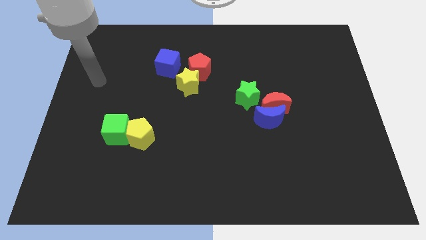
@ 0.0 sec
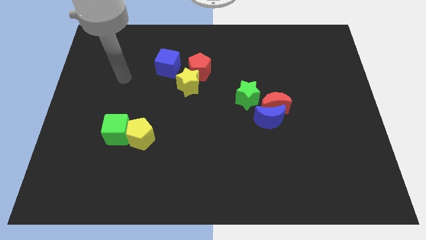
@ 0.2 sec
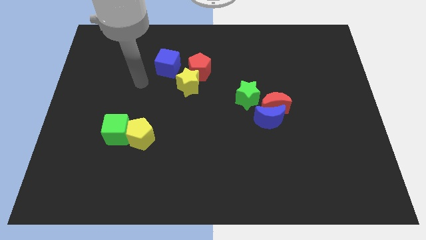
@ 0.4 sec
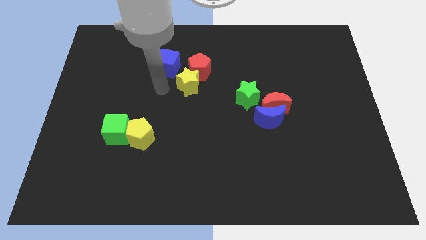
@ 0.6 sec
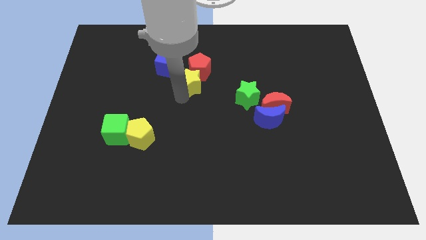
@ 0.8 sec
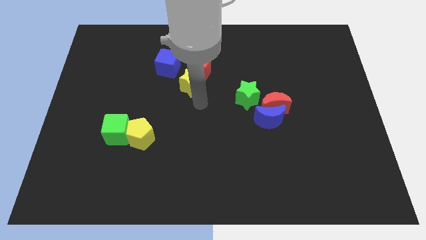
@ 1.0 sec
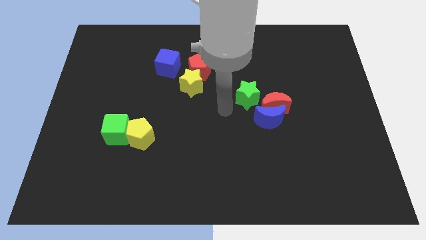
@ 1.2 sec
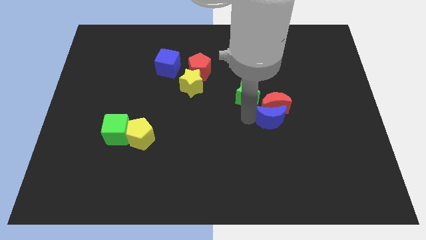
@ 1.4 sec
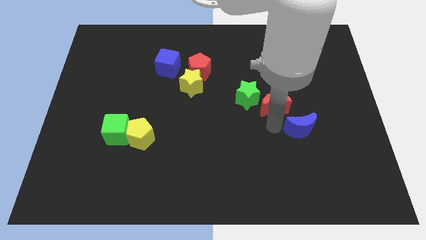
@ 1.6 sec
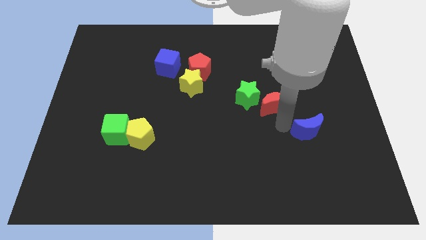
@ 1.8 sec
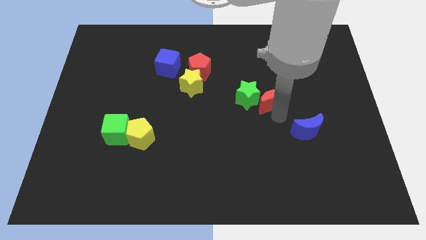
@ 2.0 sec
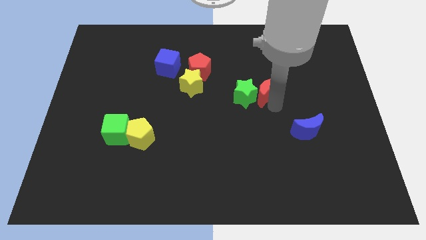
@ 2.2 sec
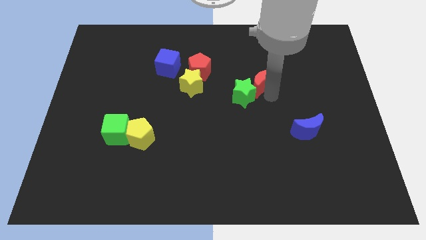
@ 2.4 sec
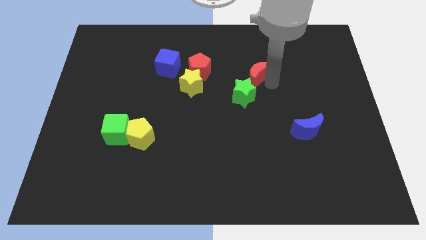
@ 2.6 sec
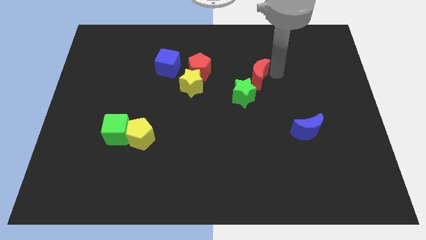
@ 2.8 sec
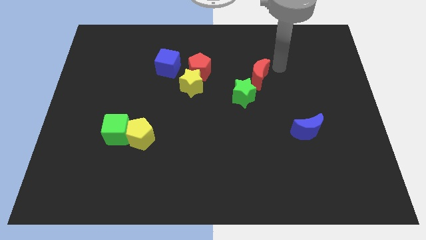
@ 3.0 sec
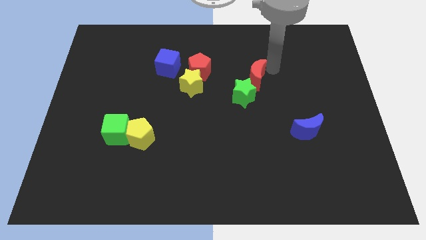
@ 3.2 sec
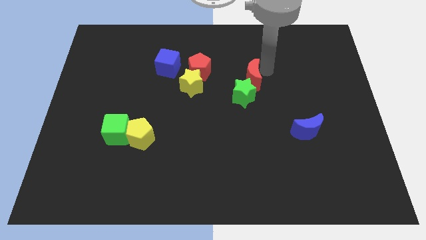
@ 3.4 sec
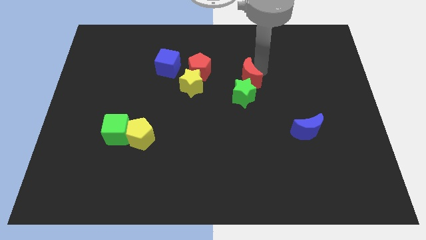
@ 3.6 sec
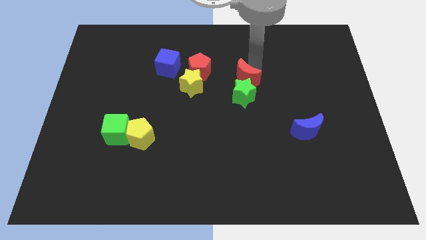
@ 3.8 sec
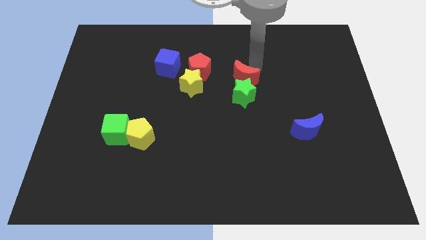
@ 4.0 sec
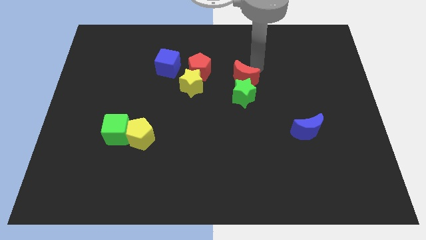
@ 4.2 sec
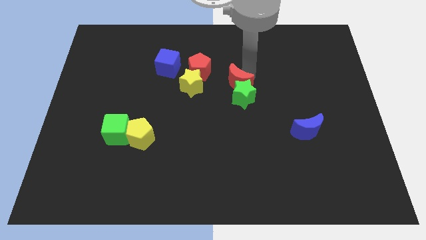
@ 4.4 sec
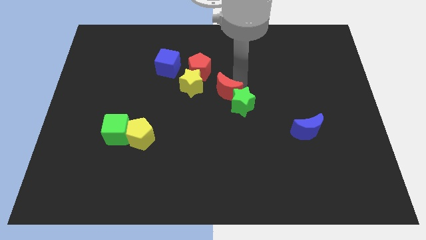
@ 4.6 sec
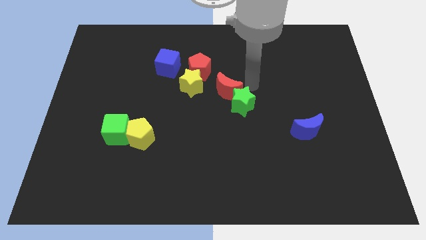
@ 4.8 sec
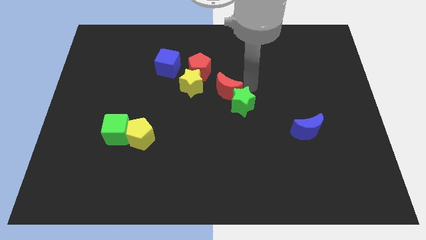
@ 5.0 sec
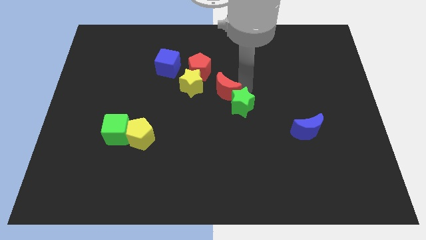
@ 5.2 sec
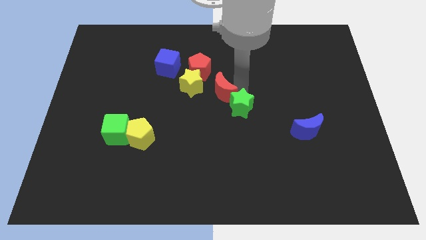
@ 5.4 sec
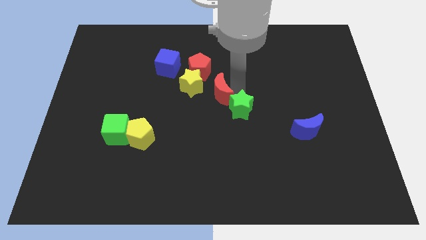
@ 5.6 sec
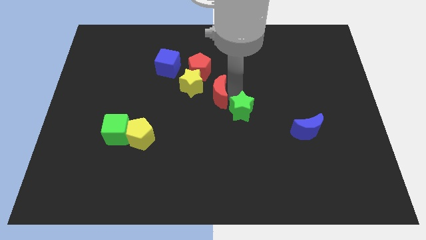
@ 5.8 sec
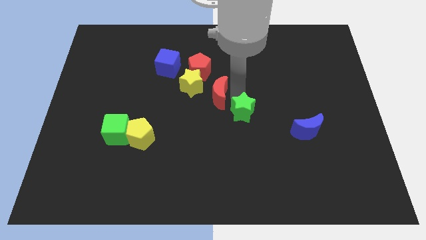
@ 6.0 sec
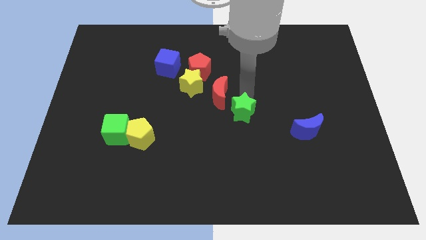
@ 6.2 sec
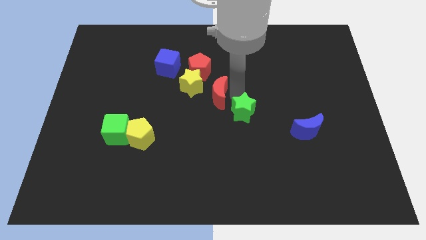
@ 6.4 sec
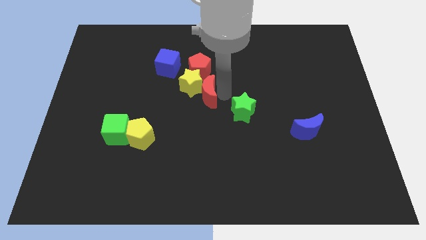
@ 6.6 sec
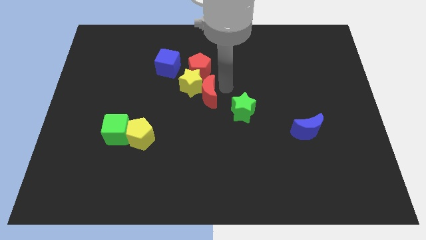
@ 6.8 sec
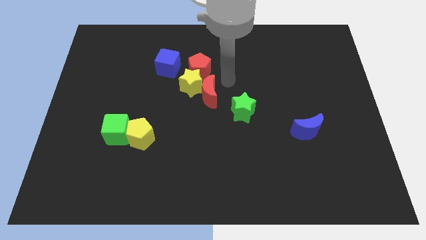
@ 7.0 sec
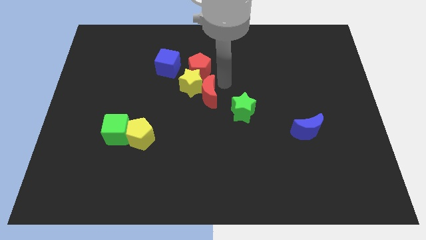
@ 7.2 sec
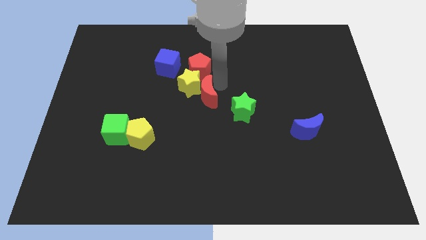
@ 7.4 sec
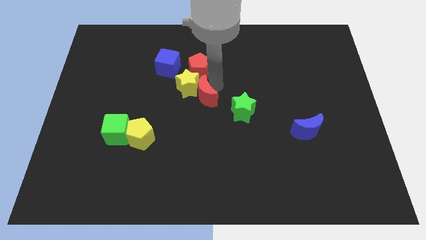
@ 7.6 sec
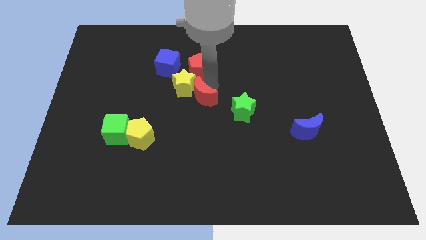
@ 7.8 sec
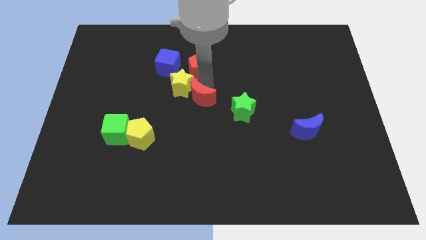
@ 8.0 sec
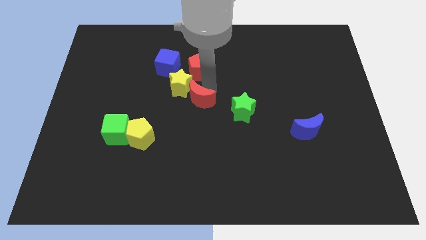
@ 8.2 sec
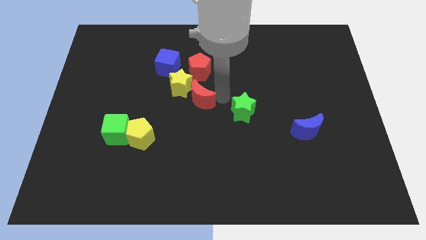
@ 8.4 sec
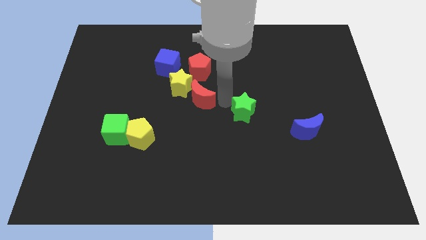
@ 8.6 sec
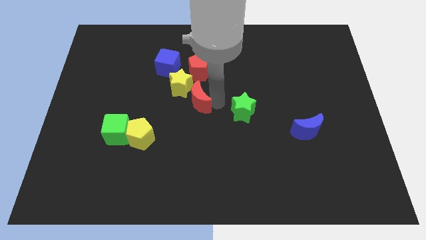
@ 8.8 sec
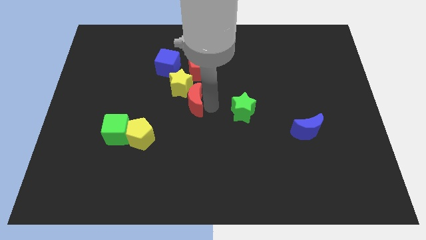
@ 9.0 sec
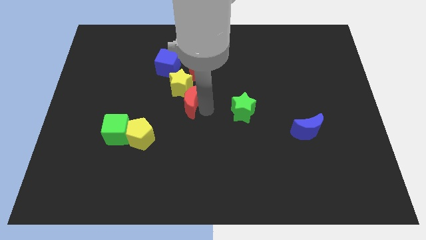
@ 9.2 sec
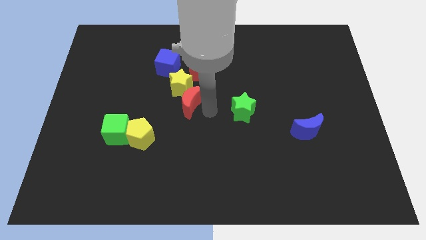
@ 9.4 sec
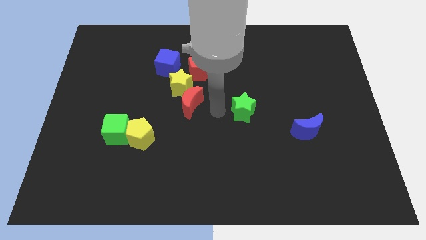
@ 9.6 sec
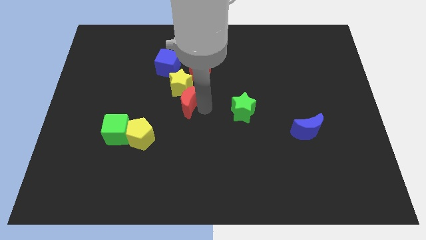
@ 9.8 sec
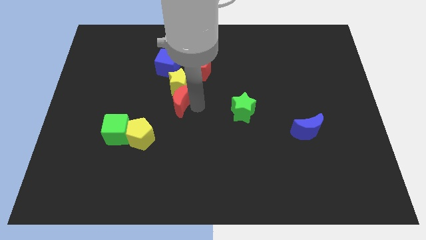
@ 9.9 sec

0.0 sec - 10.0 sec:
push the red moon to the bottom of the blue cube

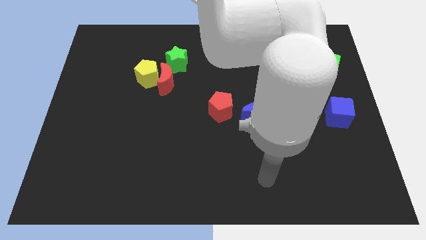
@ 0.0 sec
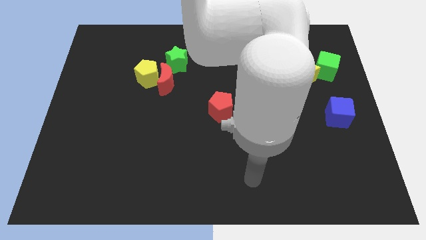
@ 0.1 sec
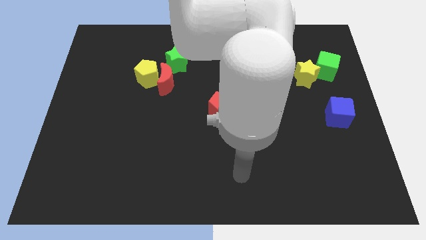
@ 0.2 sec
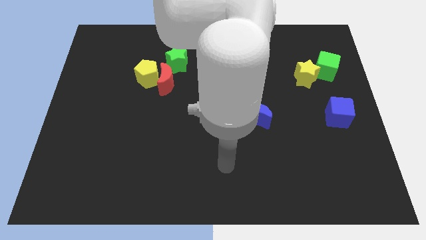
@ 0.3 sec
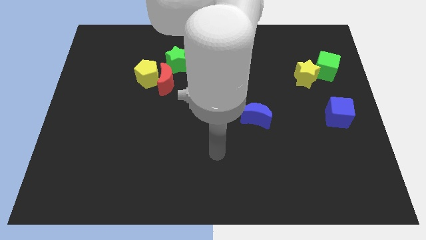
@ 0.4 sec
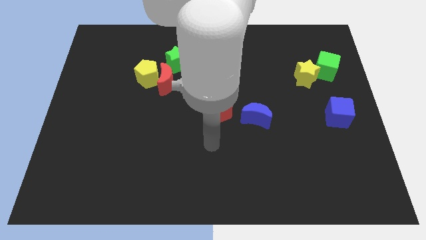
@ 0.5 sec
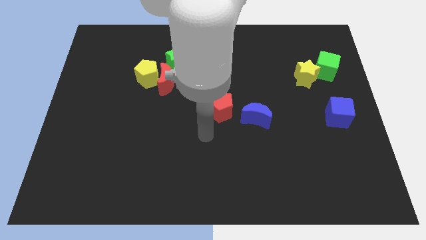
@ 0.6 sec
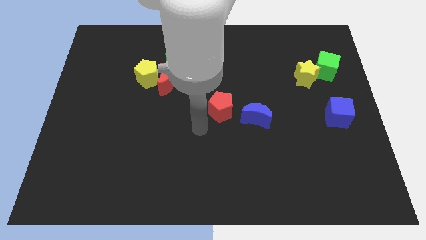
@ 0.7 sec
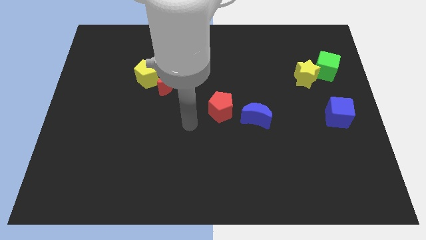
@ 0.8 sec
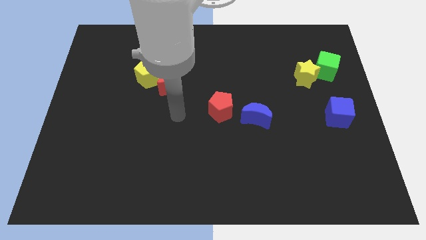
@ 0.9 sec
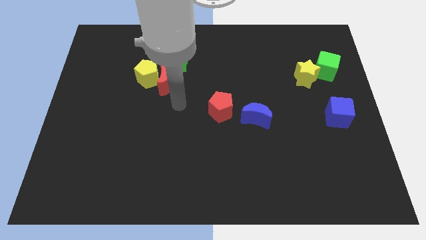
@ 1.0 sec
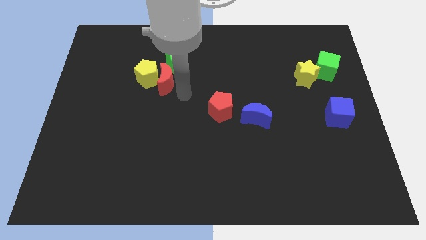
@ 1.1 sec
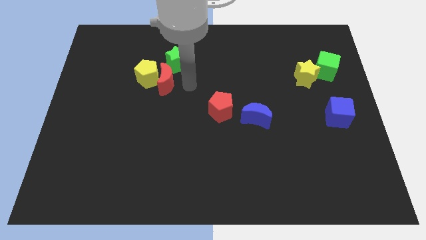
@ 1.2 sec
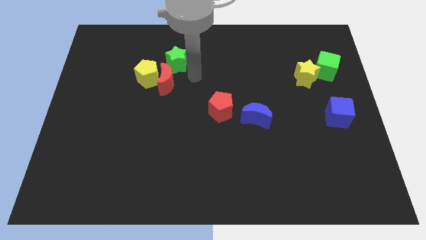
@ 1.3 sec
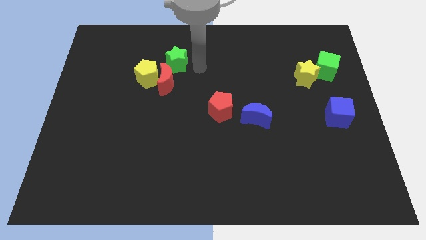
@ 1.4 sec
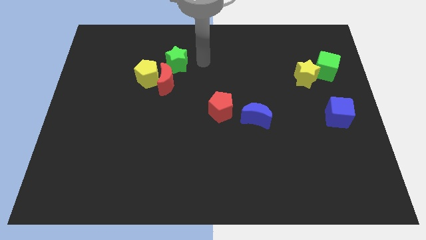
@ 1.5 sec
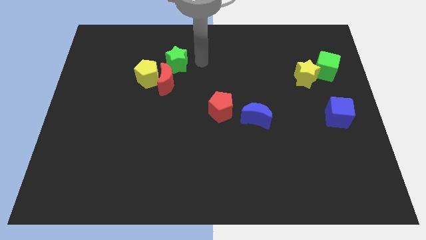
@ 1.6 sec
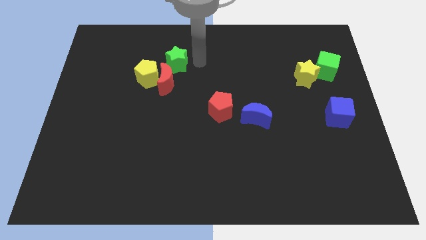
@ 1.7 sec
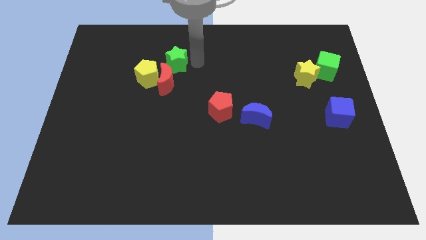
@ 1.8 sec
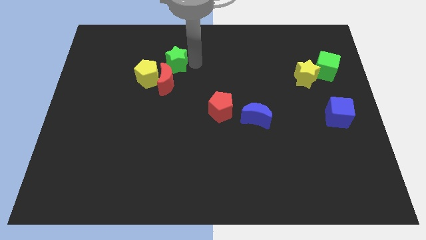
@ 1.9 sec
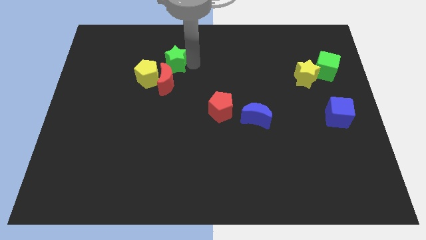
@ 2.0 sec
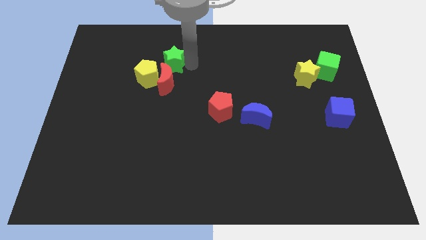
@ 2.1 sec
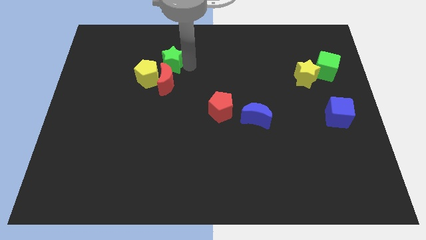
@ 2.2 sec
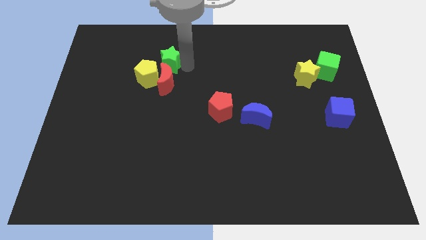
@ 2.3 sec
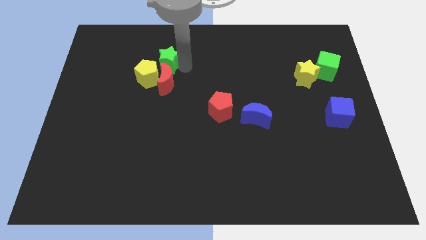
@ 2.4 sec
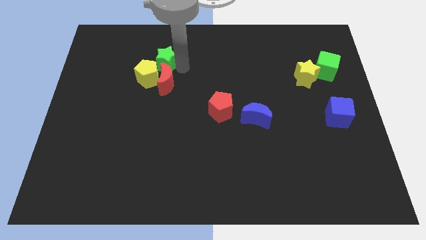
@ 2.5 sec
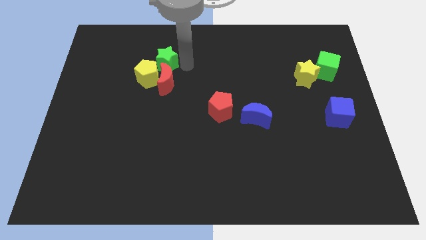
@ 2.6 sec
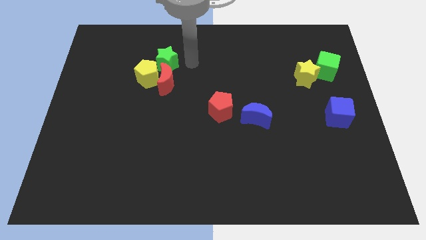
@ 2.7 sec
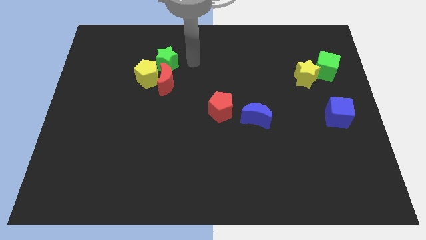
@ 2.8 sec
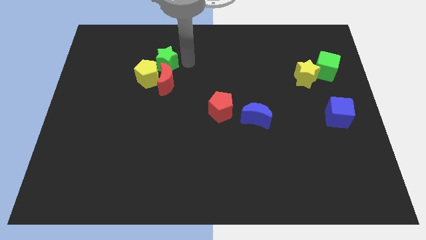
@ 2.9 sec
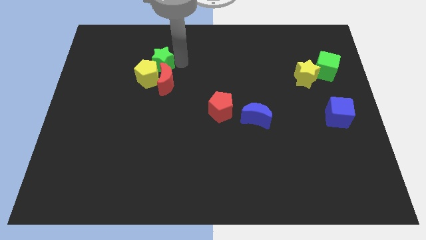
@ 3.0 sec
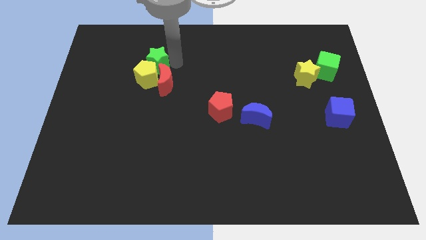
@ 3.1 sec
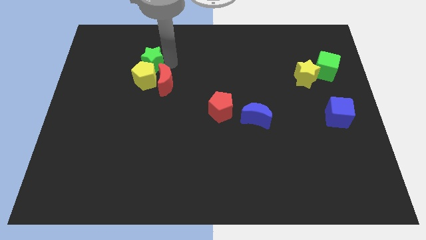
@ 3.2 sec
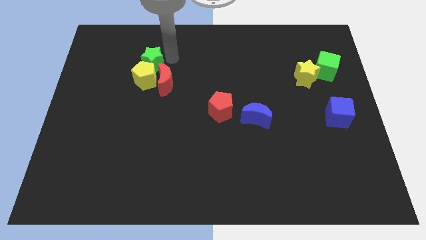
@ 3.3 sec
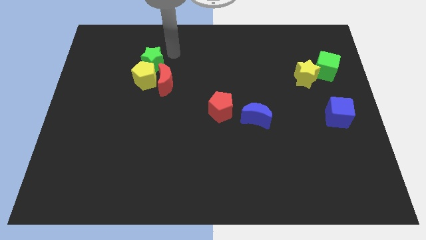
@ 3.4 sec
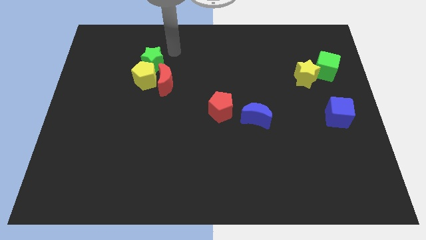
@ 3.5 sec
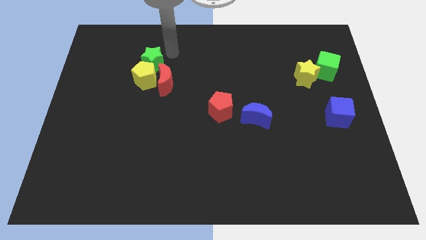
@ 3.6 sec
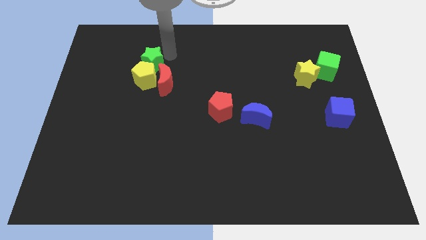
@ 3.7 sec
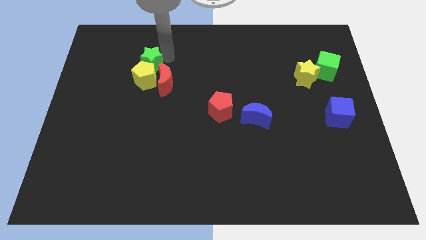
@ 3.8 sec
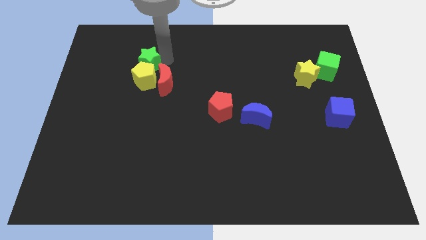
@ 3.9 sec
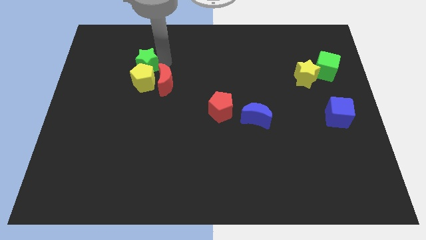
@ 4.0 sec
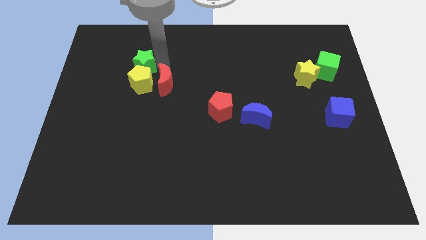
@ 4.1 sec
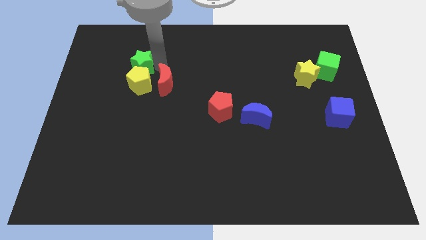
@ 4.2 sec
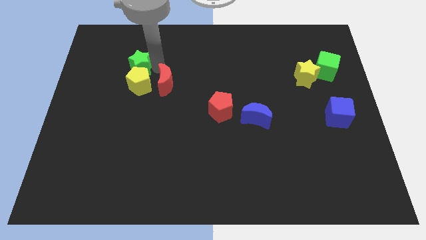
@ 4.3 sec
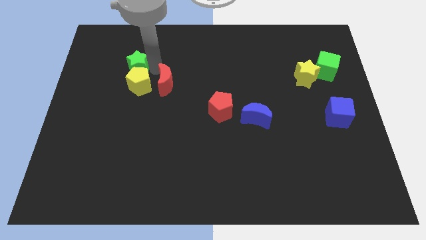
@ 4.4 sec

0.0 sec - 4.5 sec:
put the green star to the left of the red moon
